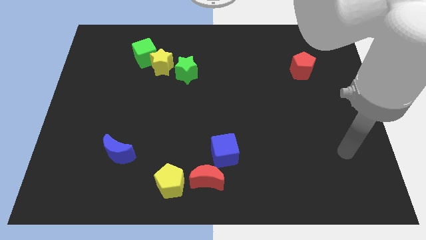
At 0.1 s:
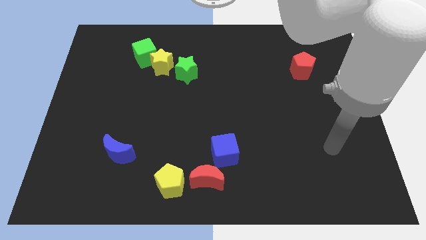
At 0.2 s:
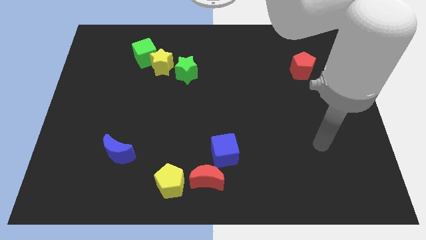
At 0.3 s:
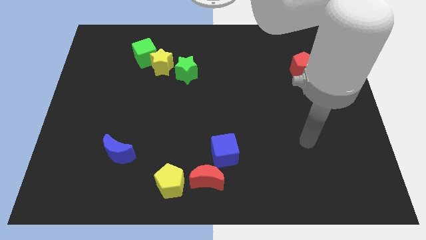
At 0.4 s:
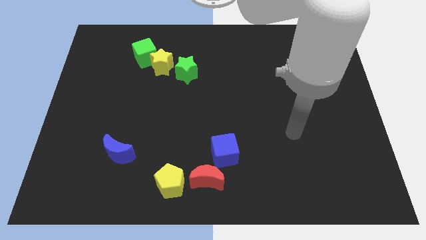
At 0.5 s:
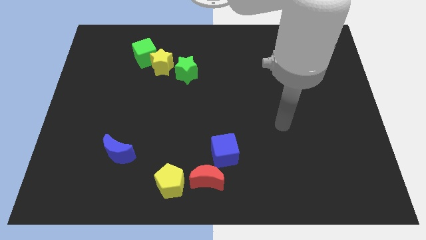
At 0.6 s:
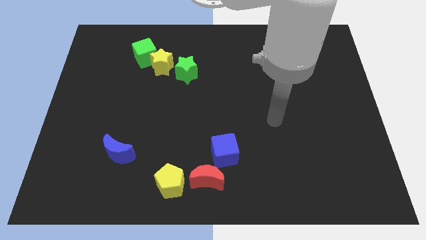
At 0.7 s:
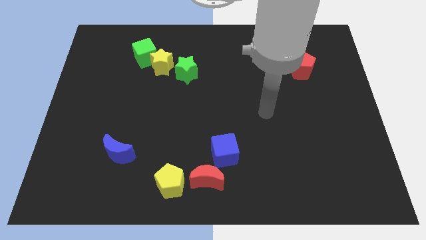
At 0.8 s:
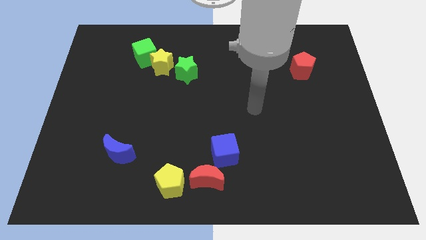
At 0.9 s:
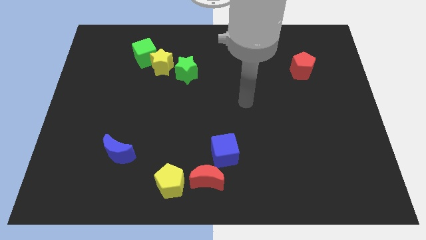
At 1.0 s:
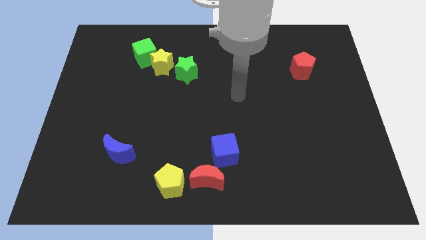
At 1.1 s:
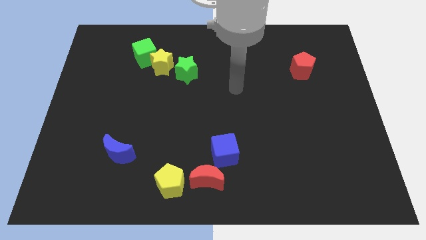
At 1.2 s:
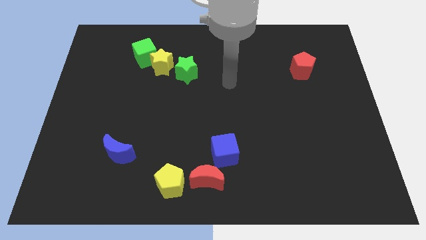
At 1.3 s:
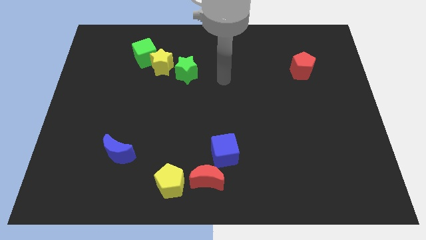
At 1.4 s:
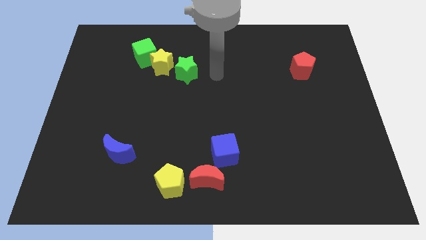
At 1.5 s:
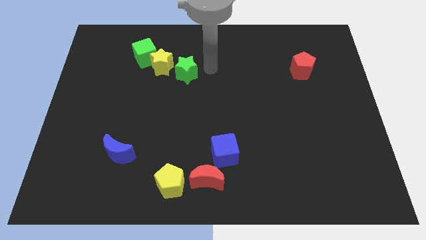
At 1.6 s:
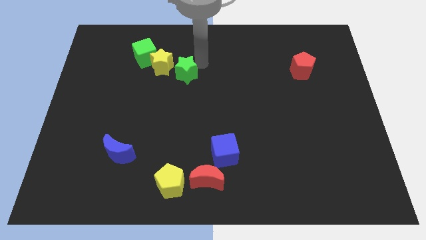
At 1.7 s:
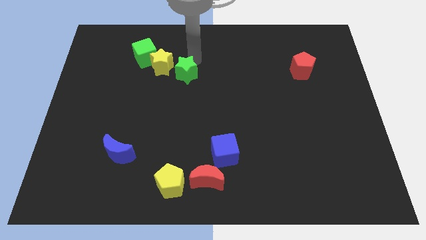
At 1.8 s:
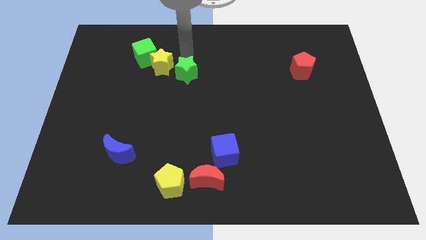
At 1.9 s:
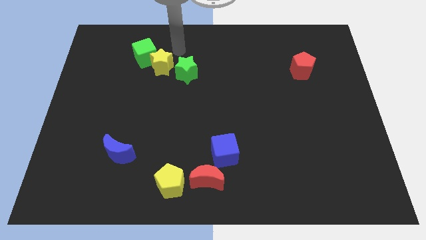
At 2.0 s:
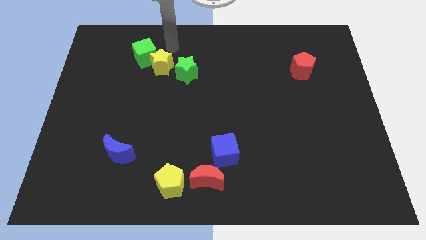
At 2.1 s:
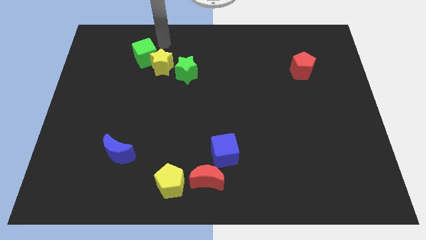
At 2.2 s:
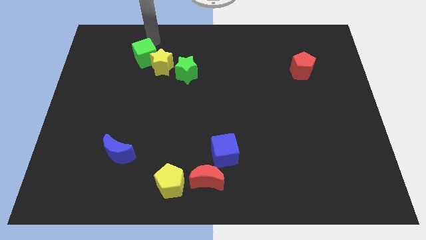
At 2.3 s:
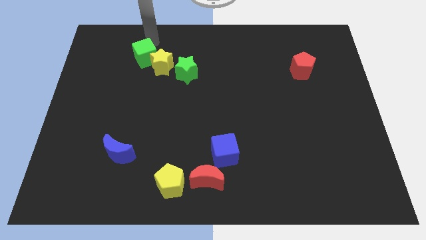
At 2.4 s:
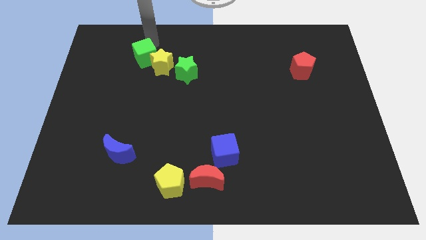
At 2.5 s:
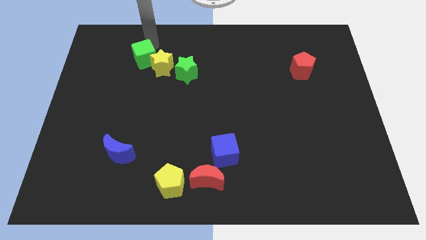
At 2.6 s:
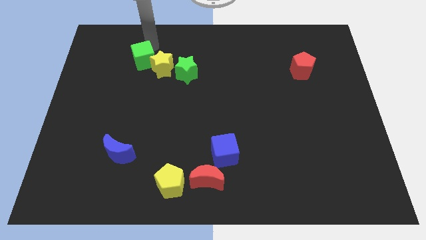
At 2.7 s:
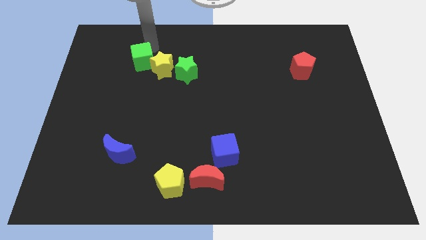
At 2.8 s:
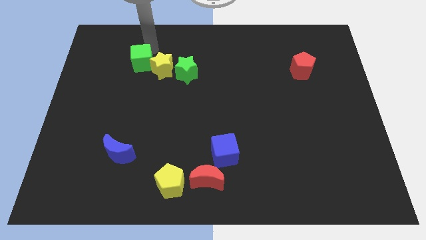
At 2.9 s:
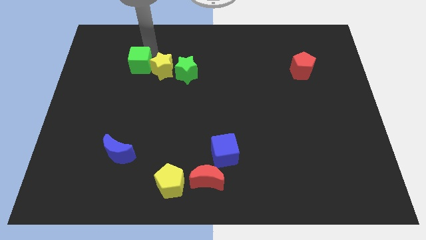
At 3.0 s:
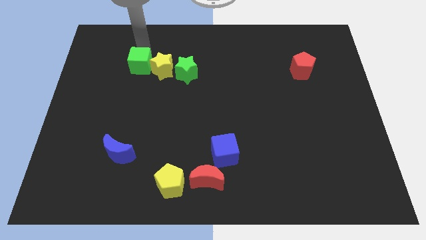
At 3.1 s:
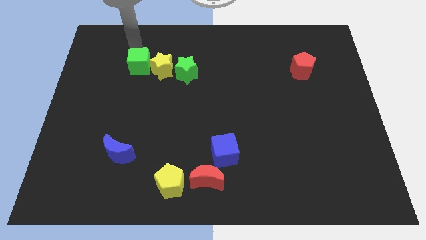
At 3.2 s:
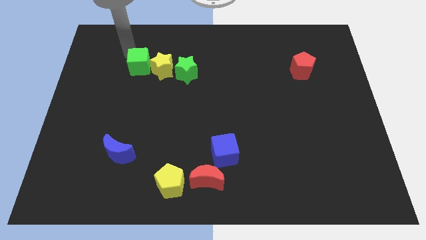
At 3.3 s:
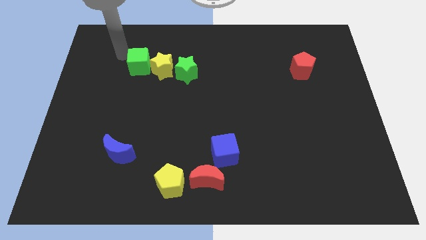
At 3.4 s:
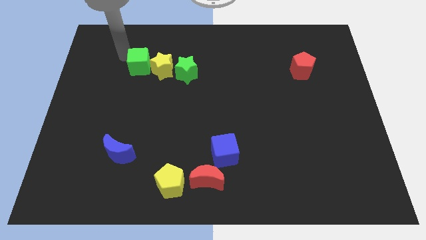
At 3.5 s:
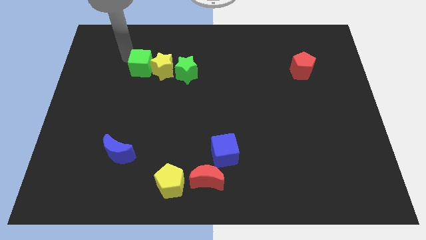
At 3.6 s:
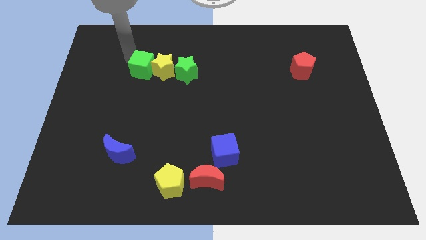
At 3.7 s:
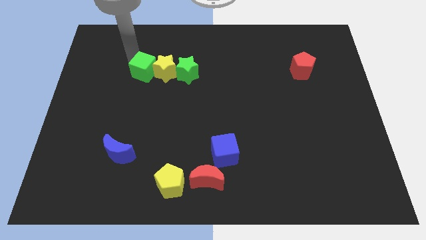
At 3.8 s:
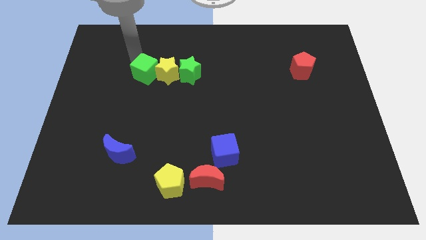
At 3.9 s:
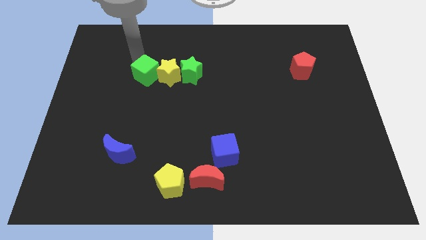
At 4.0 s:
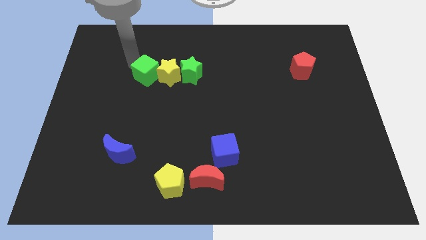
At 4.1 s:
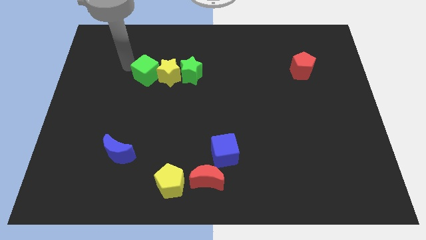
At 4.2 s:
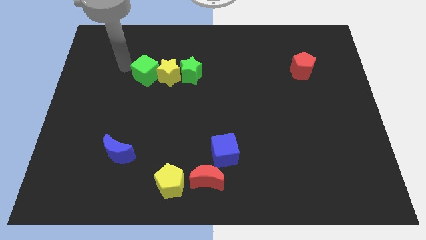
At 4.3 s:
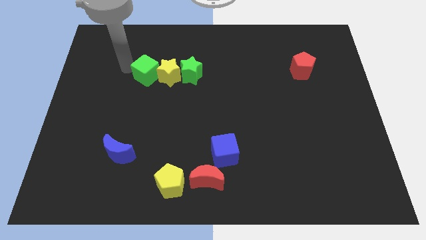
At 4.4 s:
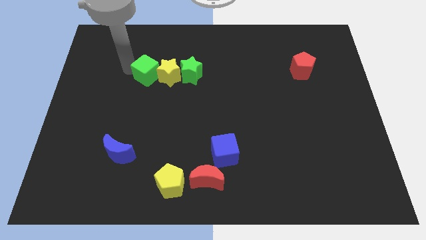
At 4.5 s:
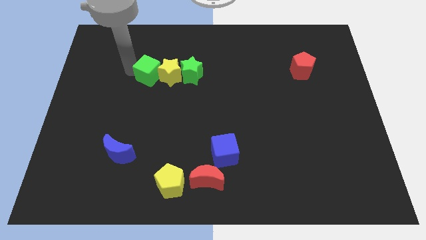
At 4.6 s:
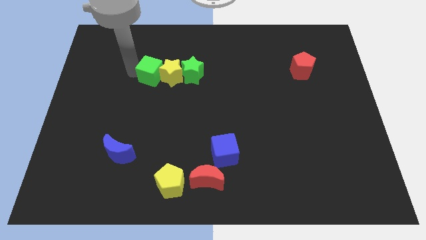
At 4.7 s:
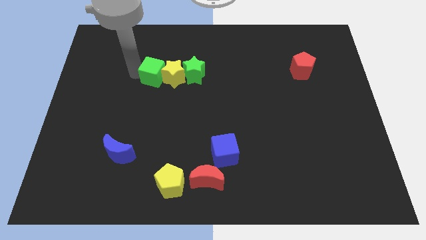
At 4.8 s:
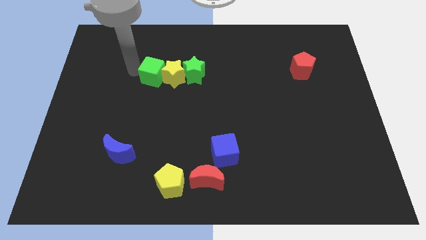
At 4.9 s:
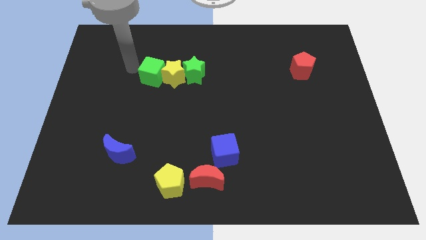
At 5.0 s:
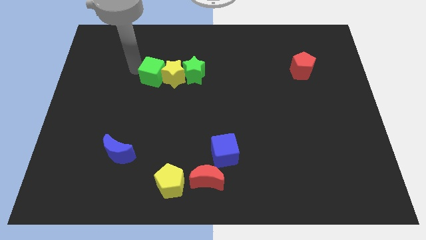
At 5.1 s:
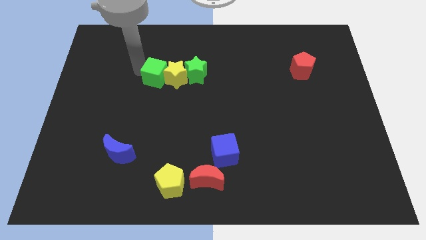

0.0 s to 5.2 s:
slightly slide the green cube diagonally downwards and right

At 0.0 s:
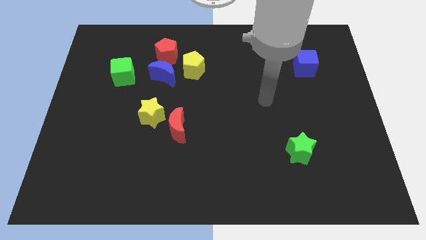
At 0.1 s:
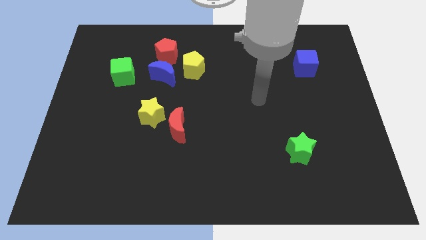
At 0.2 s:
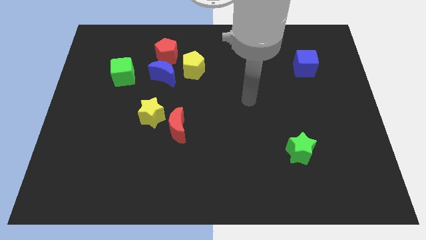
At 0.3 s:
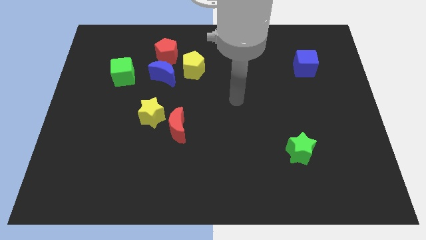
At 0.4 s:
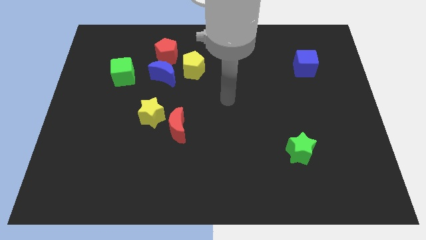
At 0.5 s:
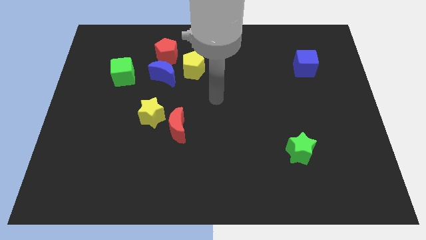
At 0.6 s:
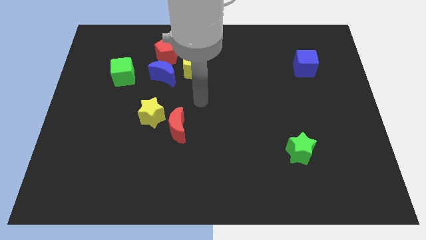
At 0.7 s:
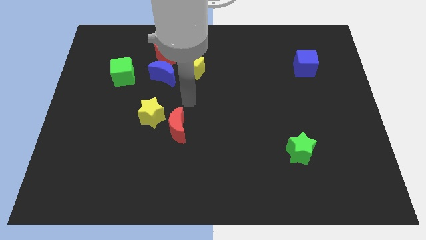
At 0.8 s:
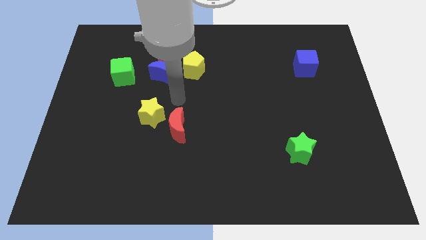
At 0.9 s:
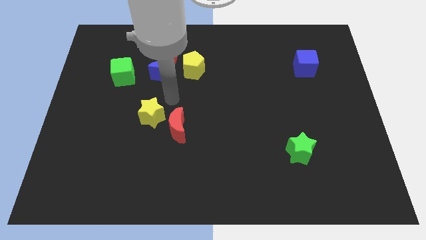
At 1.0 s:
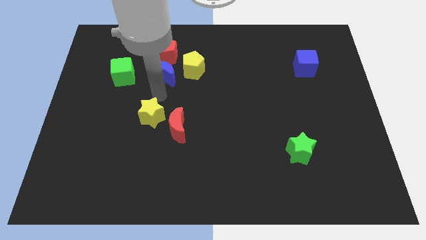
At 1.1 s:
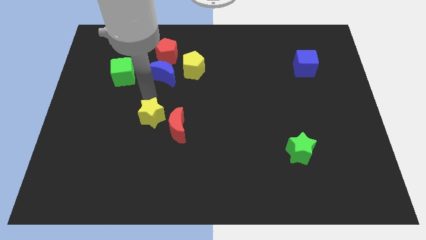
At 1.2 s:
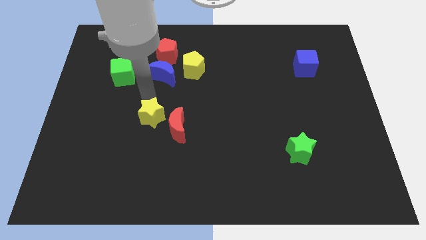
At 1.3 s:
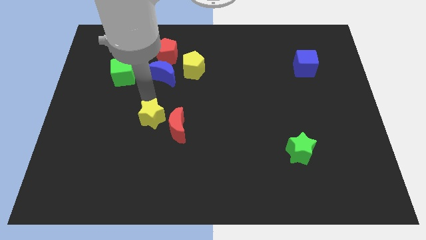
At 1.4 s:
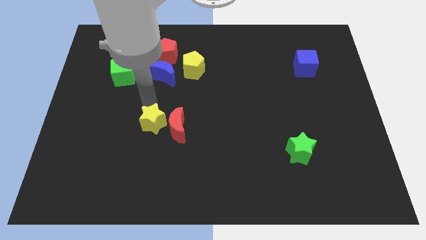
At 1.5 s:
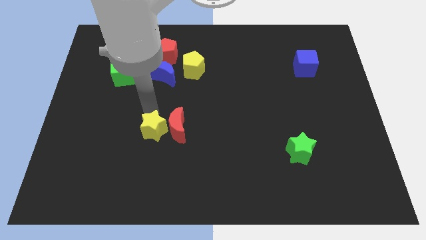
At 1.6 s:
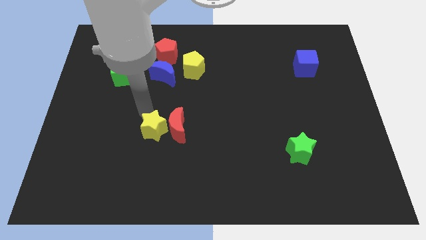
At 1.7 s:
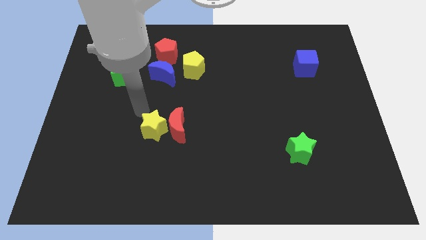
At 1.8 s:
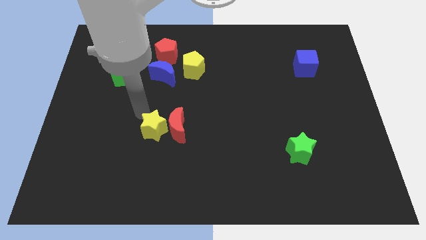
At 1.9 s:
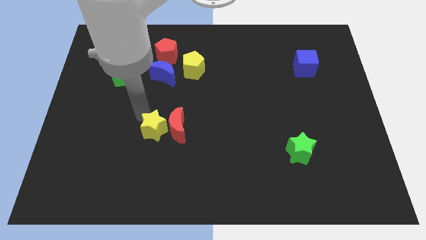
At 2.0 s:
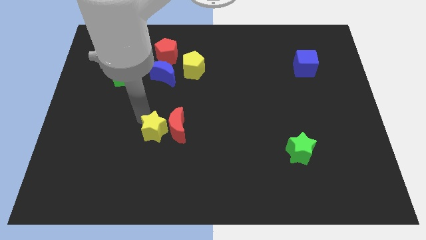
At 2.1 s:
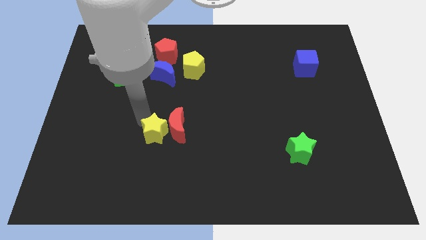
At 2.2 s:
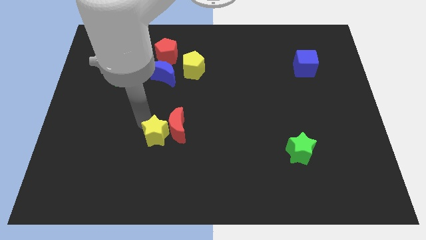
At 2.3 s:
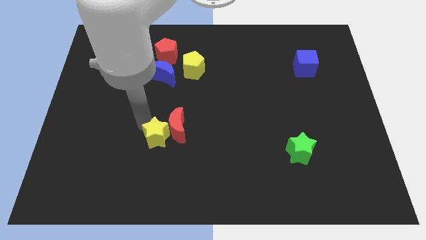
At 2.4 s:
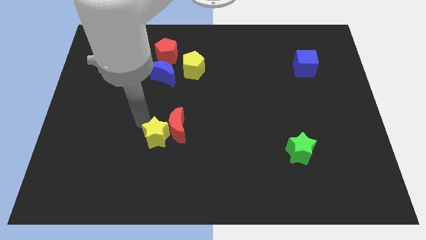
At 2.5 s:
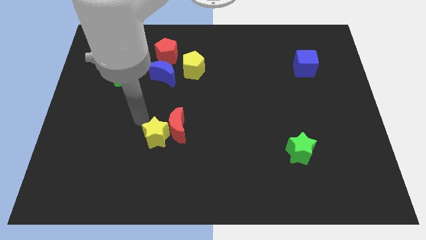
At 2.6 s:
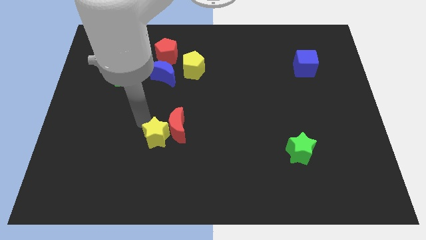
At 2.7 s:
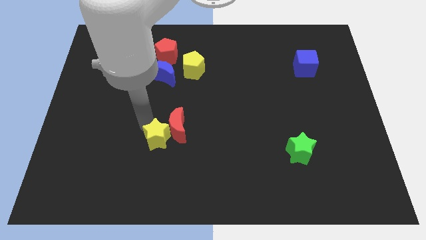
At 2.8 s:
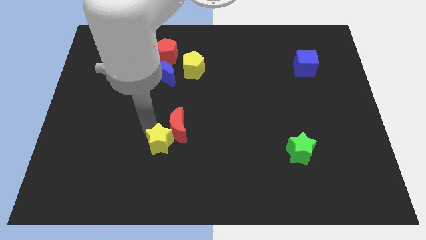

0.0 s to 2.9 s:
push the yellow star downwards and right diagonally a little bit

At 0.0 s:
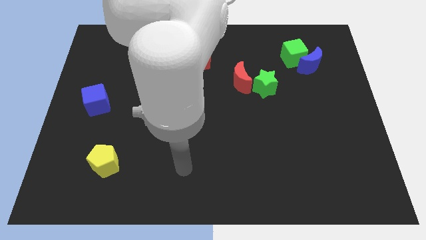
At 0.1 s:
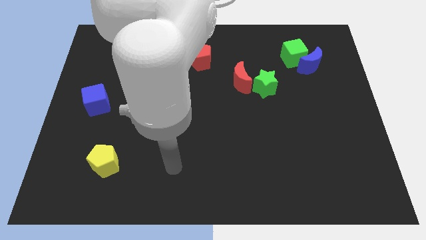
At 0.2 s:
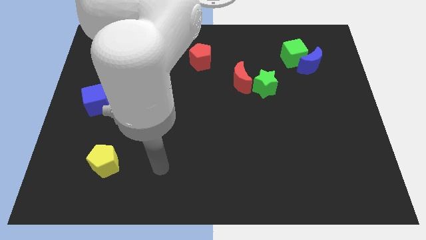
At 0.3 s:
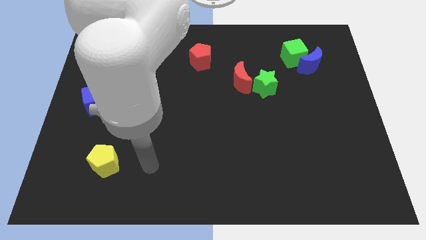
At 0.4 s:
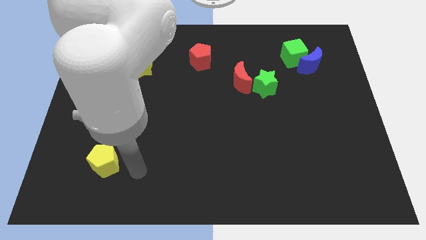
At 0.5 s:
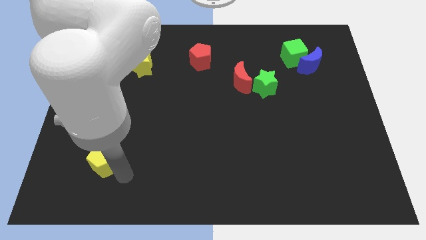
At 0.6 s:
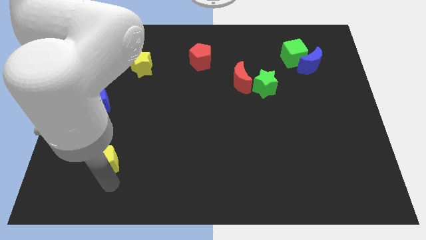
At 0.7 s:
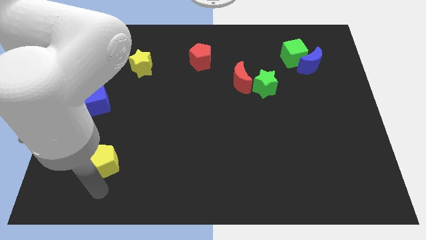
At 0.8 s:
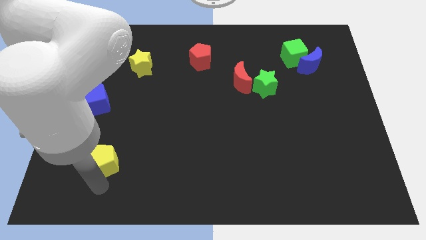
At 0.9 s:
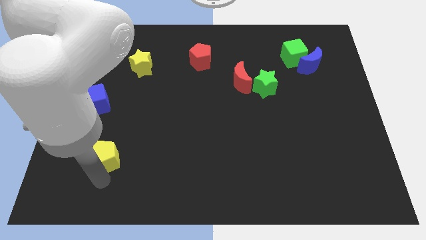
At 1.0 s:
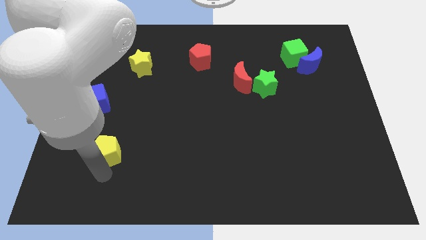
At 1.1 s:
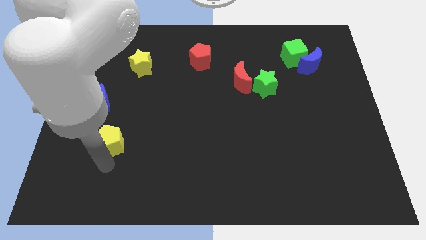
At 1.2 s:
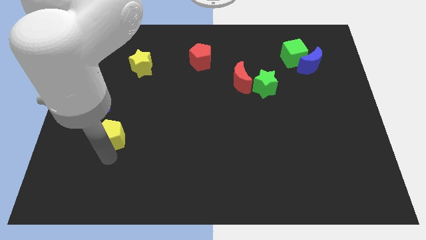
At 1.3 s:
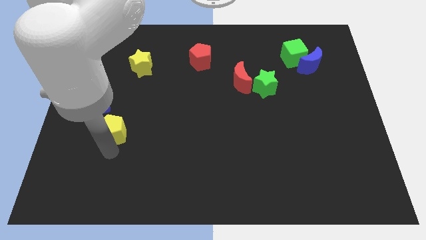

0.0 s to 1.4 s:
push the yellow pentagon somewhat upwards
